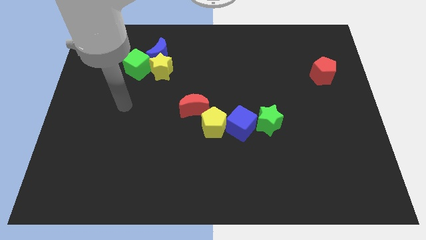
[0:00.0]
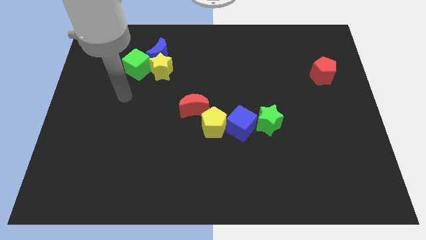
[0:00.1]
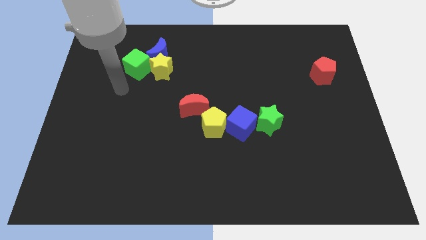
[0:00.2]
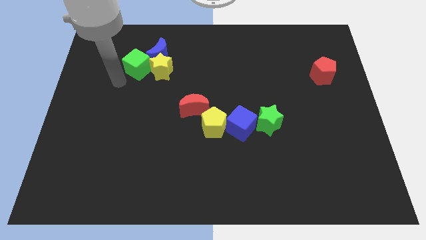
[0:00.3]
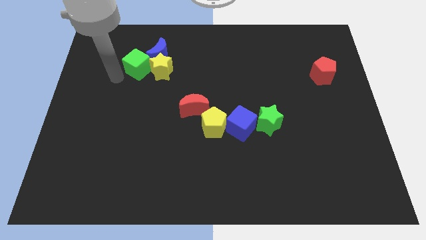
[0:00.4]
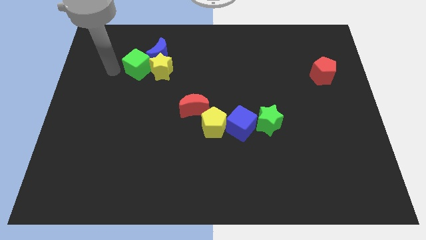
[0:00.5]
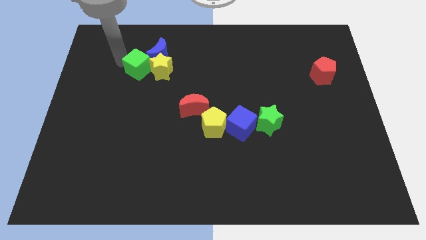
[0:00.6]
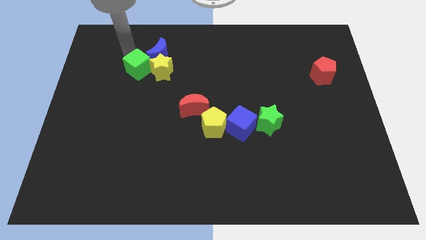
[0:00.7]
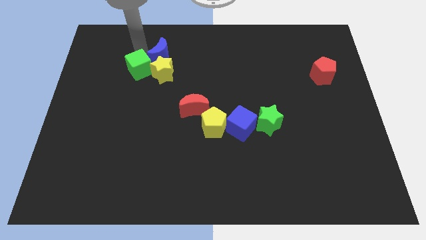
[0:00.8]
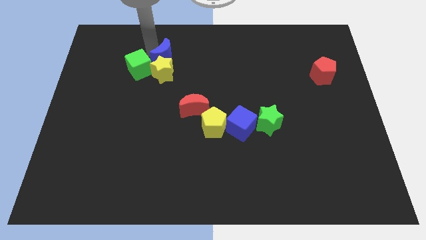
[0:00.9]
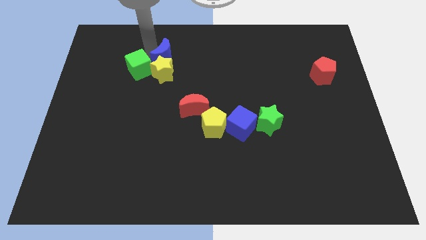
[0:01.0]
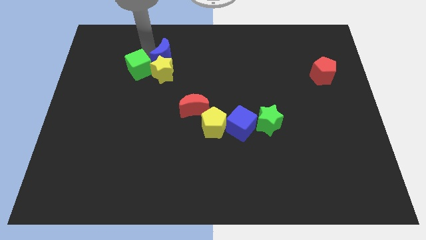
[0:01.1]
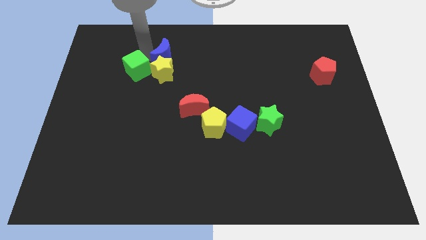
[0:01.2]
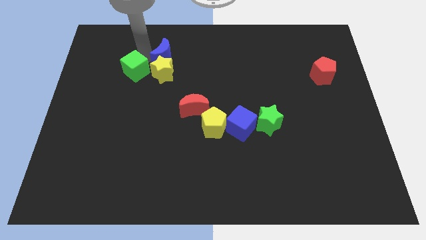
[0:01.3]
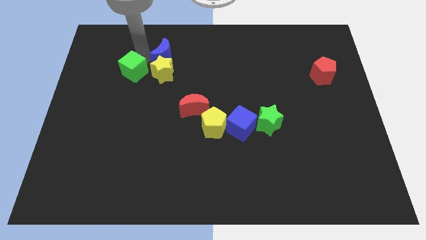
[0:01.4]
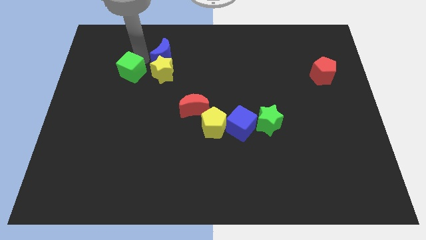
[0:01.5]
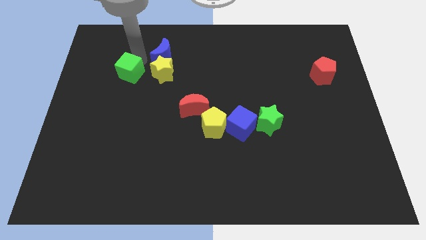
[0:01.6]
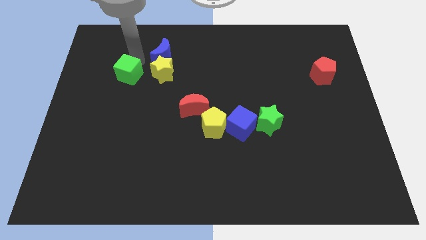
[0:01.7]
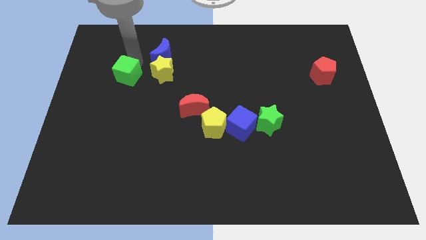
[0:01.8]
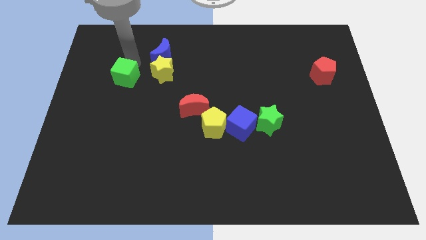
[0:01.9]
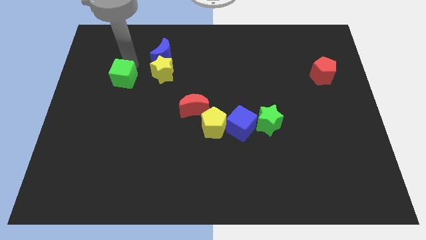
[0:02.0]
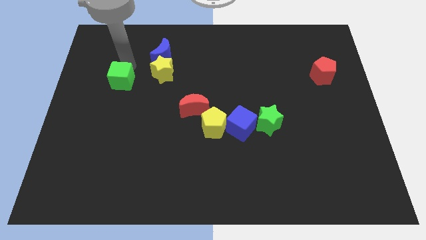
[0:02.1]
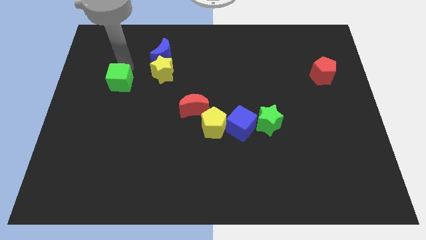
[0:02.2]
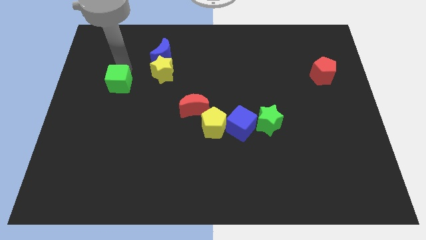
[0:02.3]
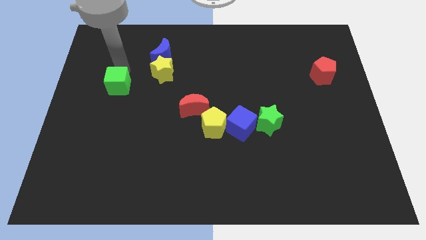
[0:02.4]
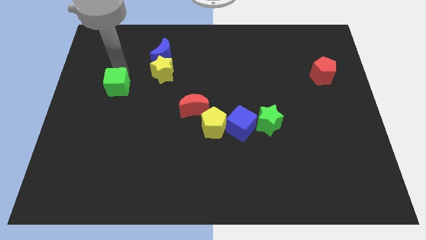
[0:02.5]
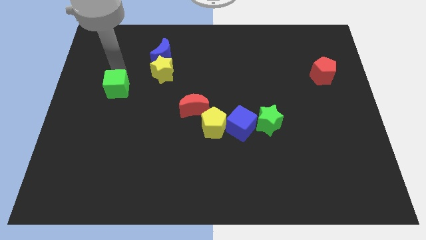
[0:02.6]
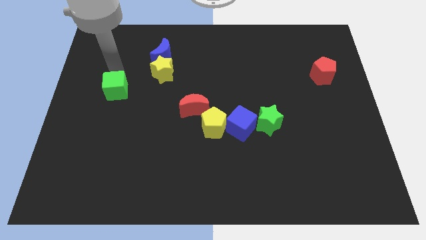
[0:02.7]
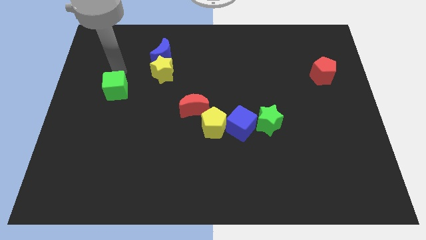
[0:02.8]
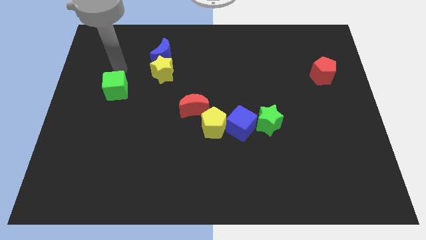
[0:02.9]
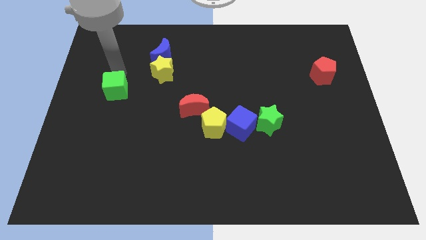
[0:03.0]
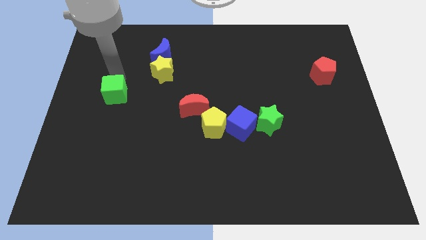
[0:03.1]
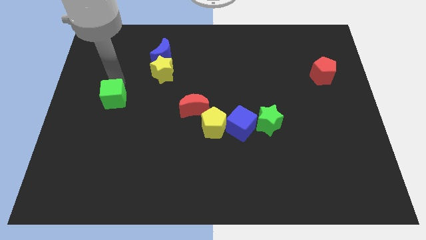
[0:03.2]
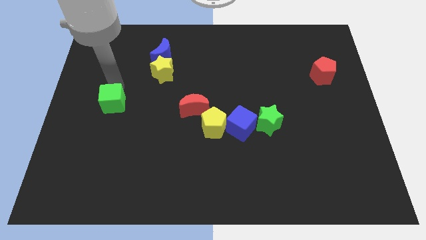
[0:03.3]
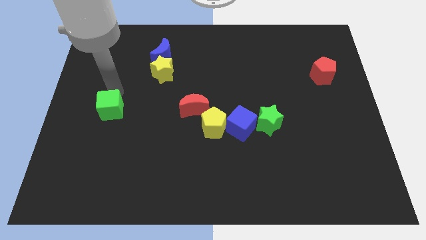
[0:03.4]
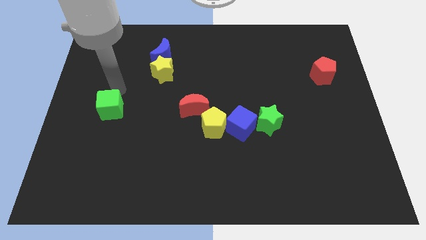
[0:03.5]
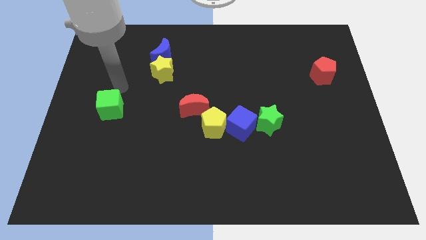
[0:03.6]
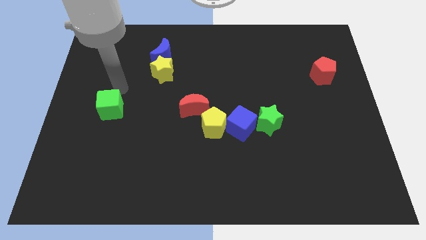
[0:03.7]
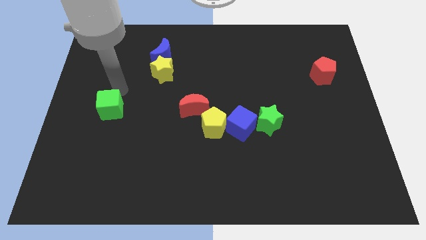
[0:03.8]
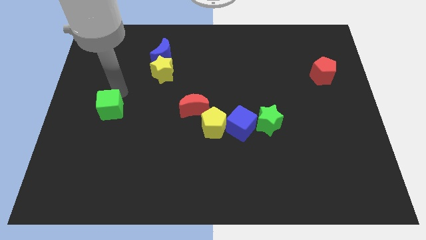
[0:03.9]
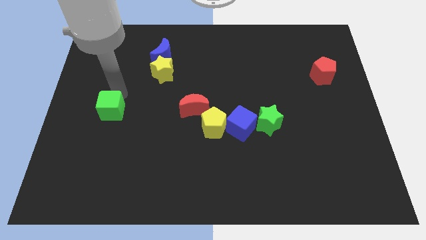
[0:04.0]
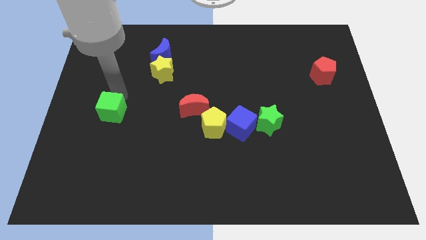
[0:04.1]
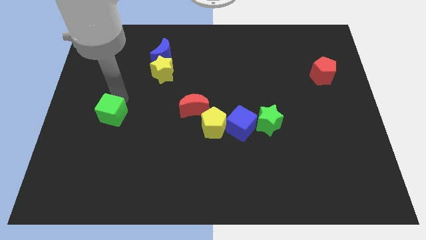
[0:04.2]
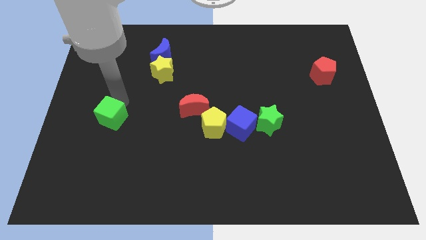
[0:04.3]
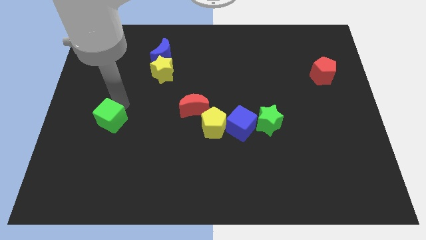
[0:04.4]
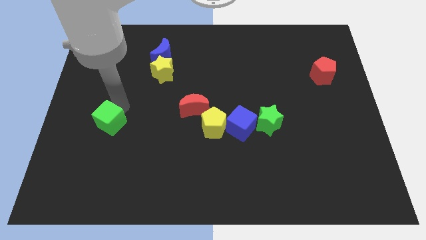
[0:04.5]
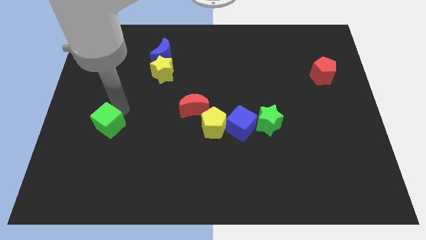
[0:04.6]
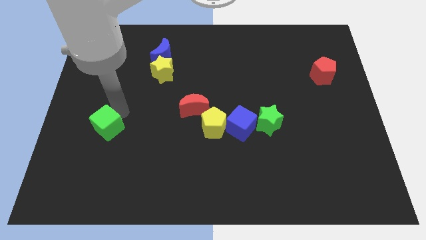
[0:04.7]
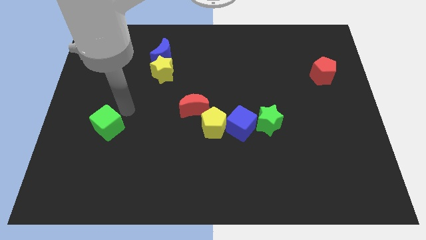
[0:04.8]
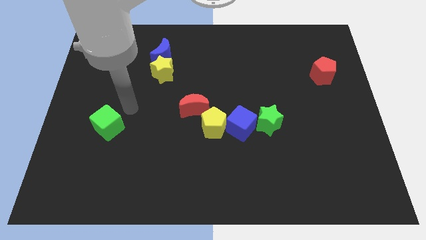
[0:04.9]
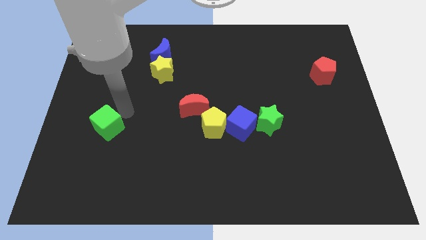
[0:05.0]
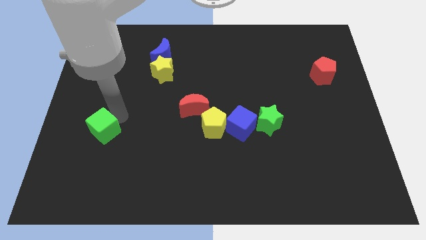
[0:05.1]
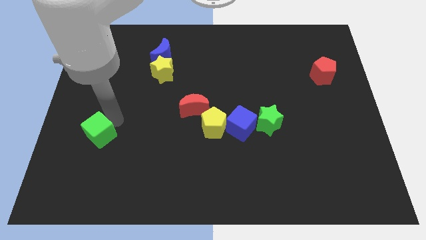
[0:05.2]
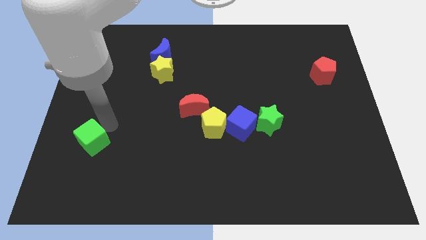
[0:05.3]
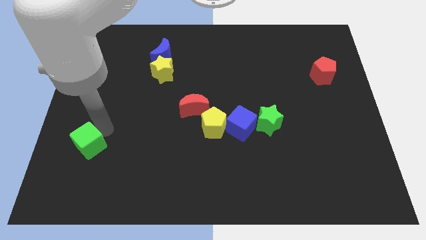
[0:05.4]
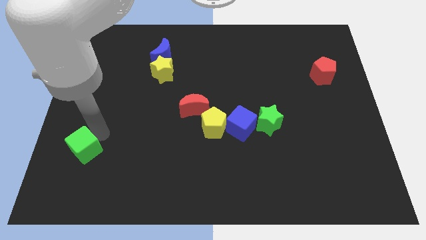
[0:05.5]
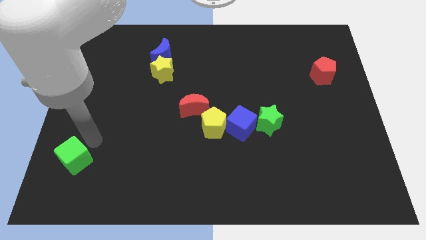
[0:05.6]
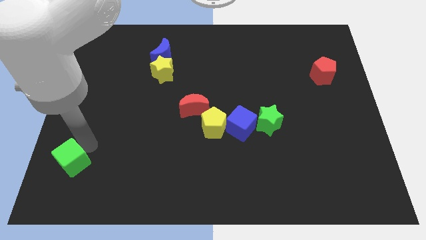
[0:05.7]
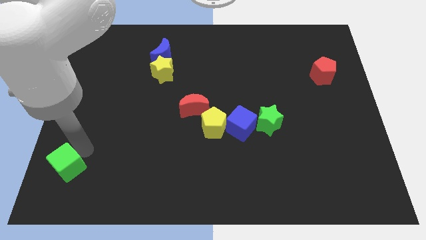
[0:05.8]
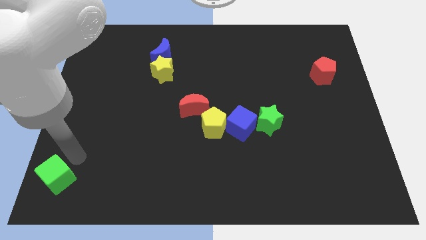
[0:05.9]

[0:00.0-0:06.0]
move the green cube to the bottom left of the board
